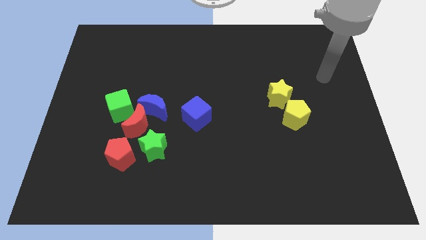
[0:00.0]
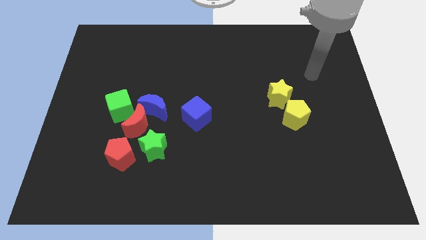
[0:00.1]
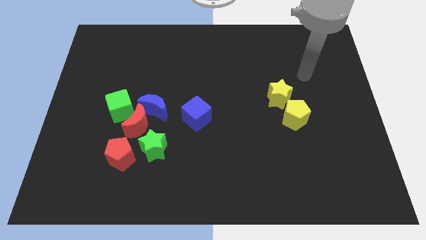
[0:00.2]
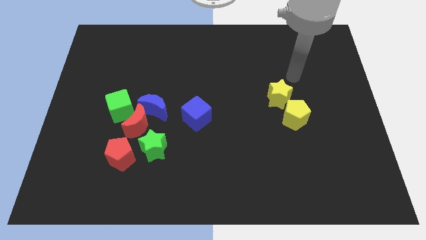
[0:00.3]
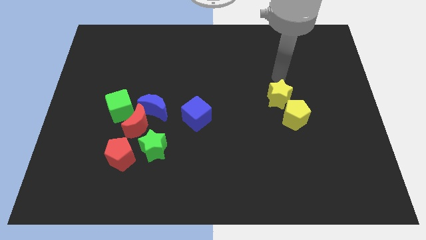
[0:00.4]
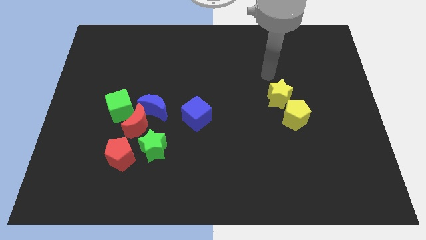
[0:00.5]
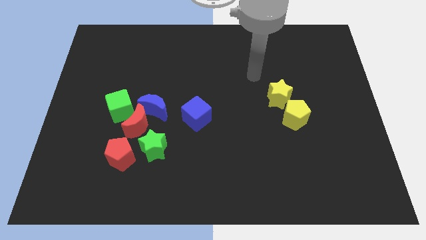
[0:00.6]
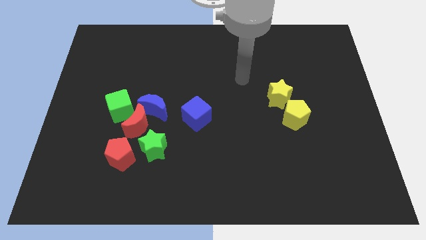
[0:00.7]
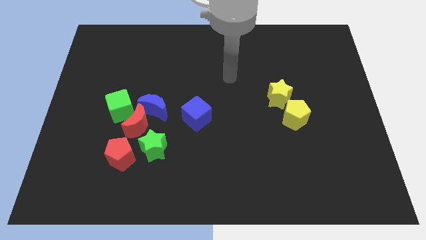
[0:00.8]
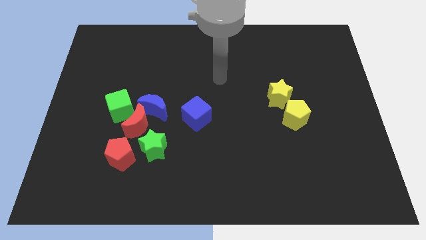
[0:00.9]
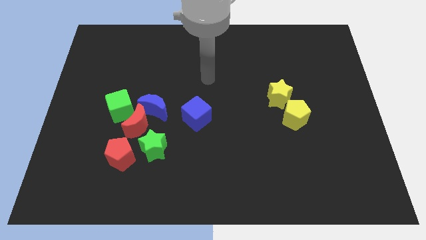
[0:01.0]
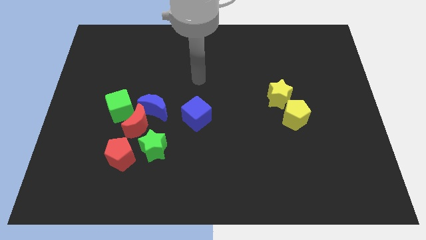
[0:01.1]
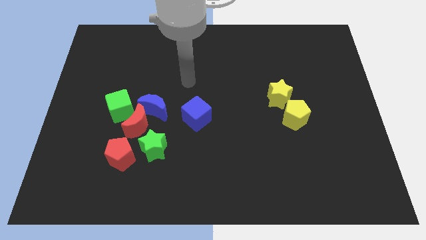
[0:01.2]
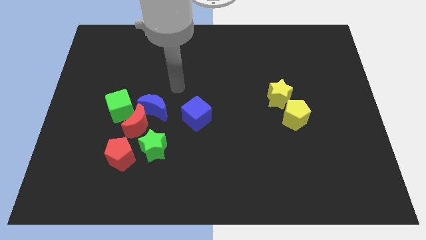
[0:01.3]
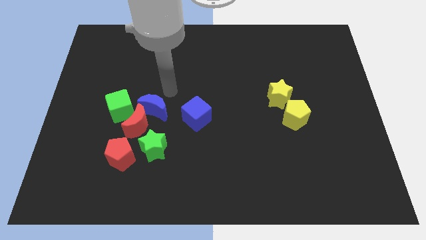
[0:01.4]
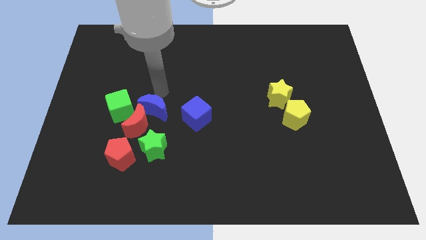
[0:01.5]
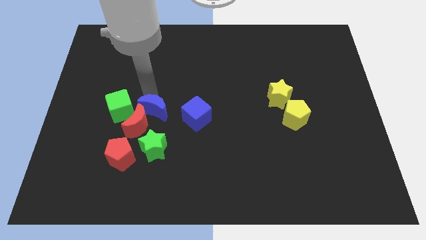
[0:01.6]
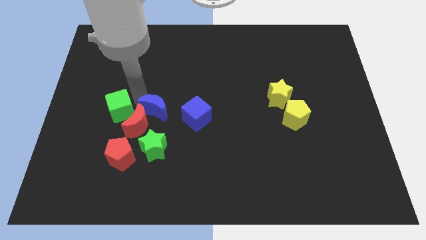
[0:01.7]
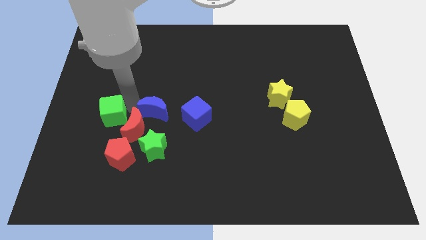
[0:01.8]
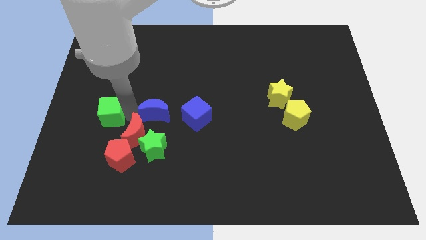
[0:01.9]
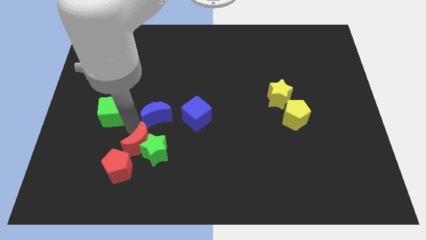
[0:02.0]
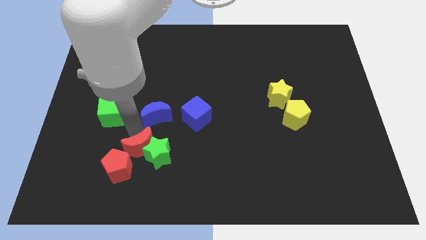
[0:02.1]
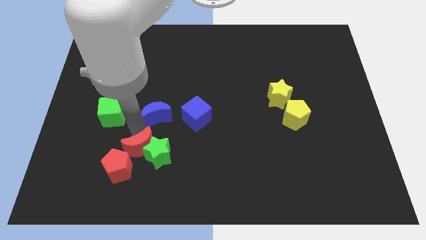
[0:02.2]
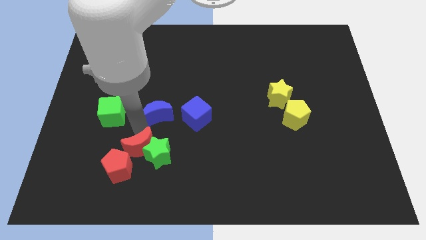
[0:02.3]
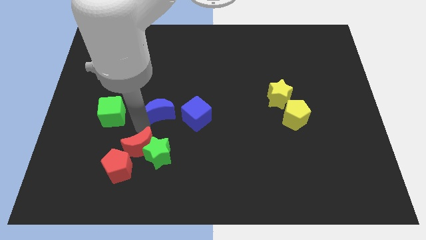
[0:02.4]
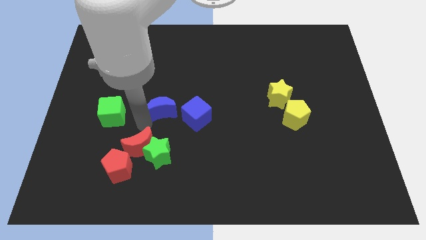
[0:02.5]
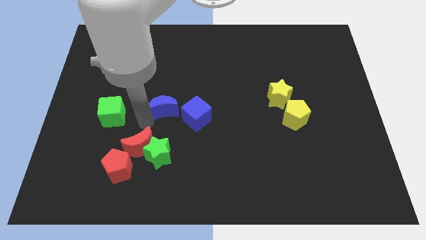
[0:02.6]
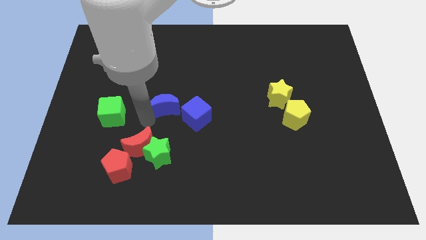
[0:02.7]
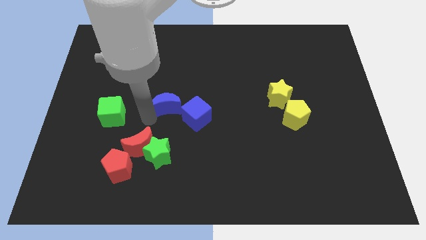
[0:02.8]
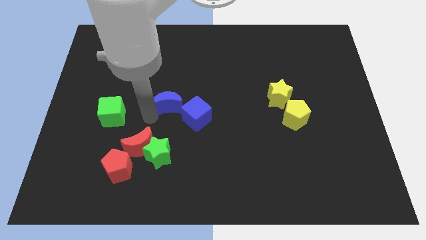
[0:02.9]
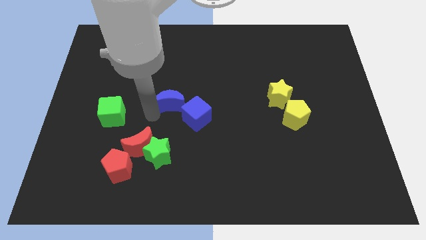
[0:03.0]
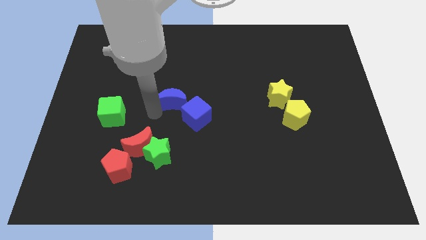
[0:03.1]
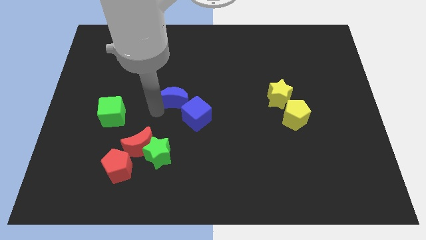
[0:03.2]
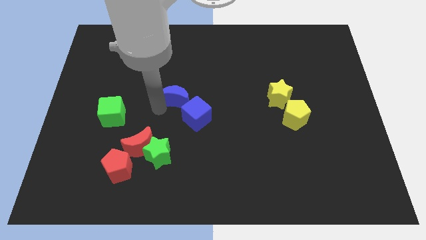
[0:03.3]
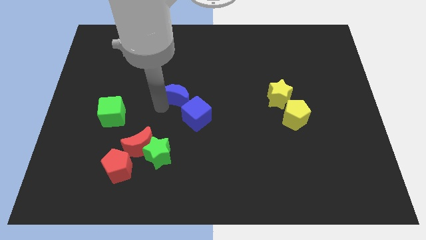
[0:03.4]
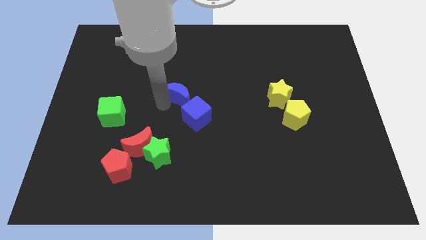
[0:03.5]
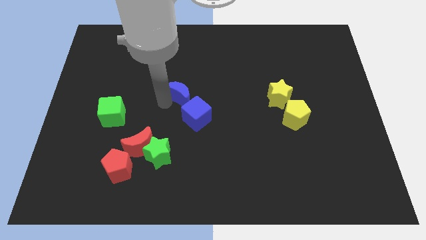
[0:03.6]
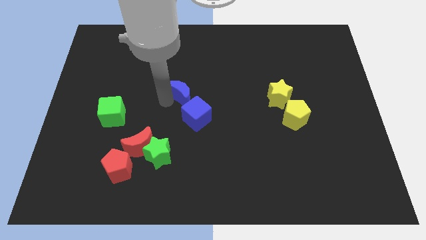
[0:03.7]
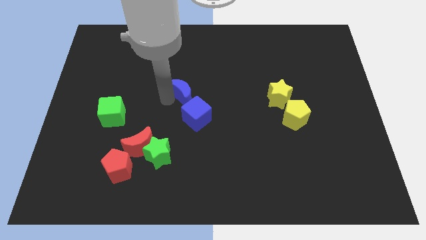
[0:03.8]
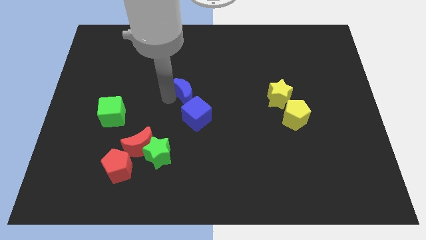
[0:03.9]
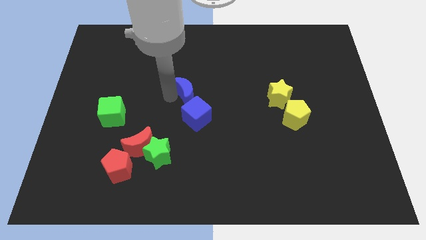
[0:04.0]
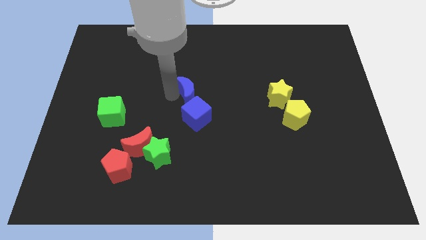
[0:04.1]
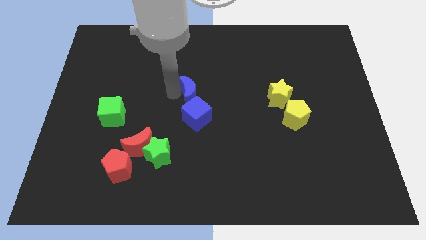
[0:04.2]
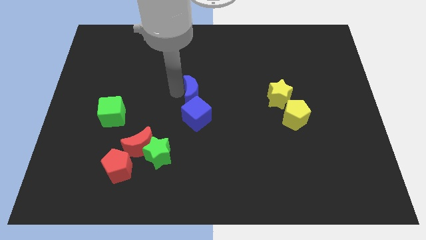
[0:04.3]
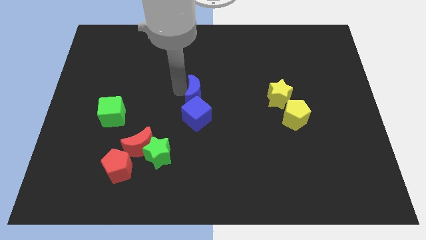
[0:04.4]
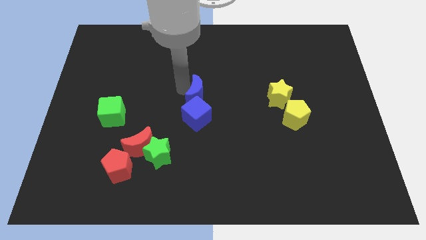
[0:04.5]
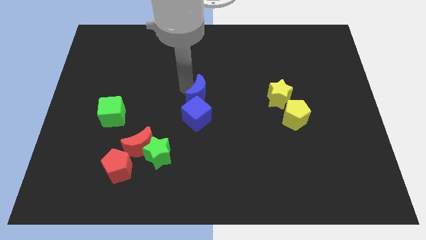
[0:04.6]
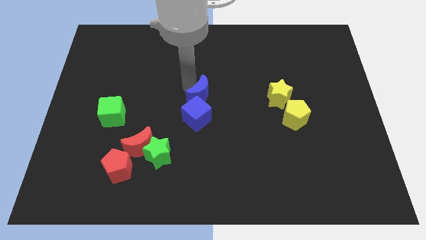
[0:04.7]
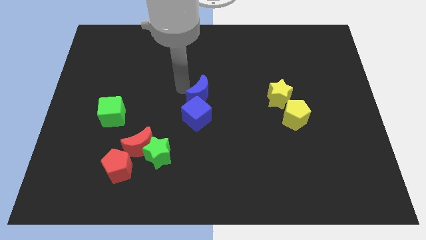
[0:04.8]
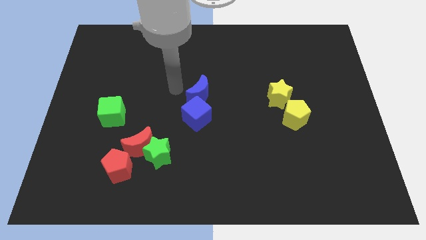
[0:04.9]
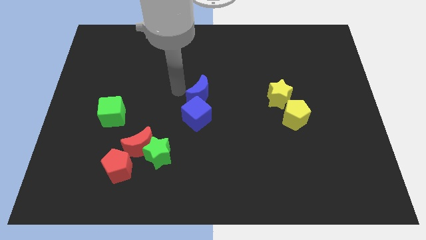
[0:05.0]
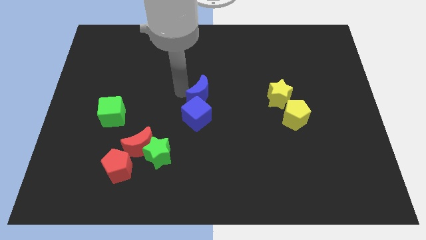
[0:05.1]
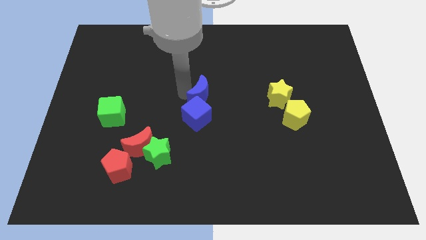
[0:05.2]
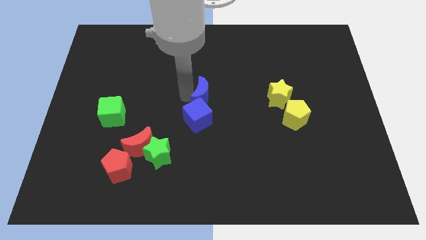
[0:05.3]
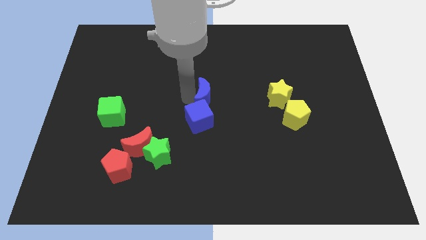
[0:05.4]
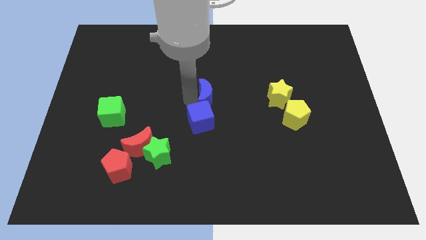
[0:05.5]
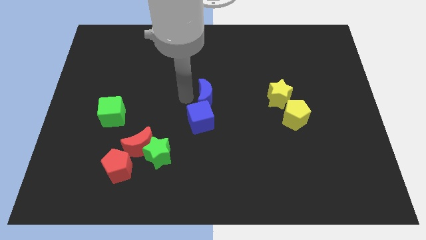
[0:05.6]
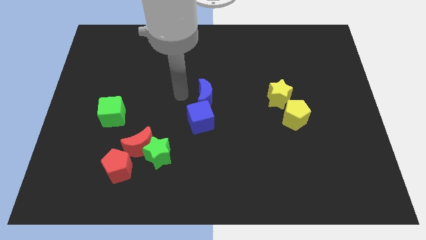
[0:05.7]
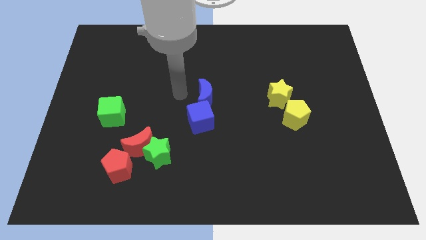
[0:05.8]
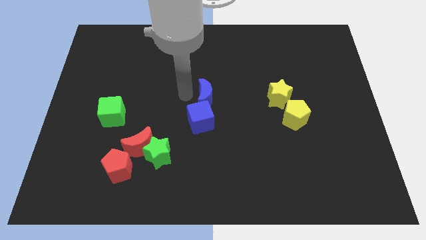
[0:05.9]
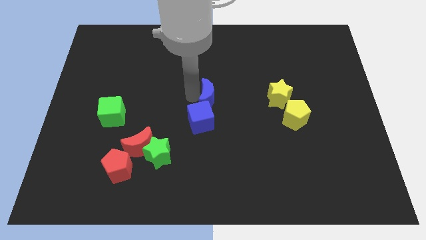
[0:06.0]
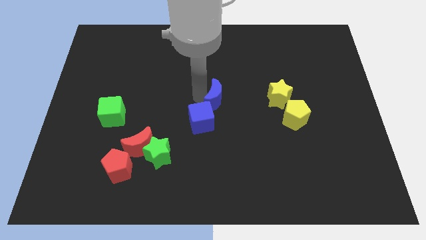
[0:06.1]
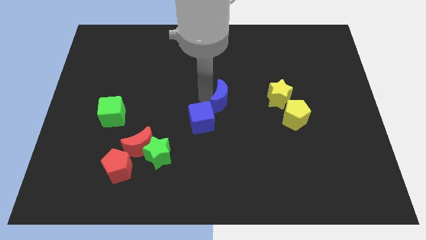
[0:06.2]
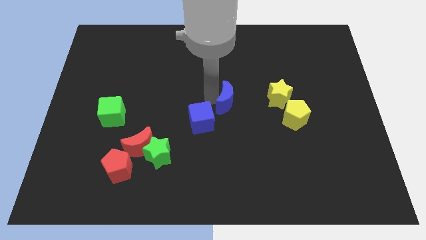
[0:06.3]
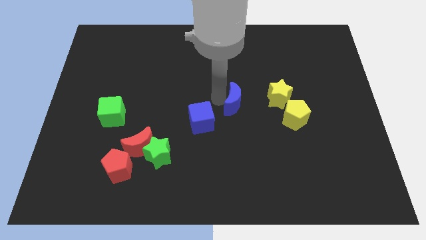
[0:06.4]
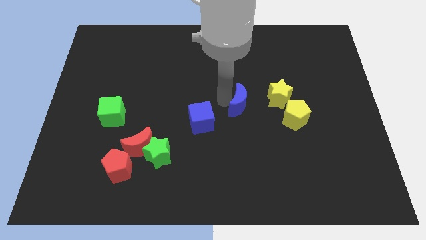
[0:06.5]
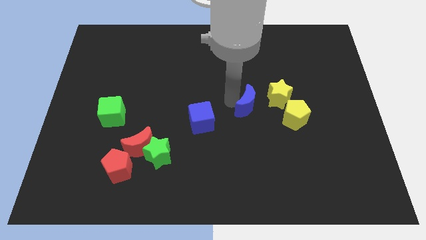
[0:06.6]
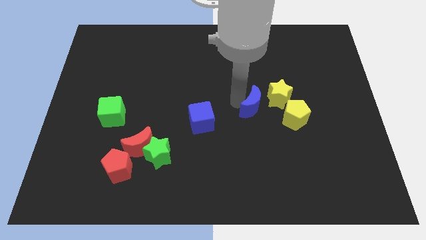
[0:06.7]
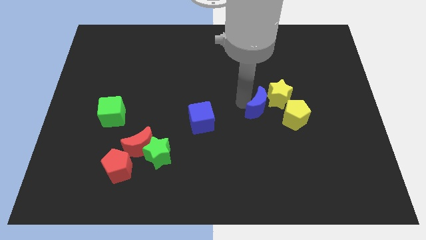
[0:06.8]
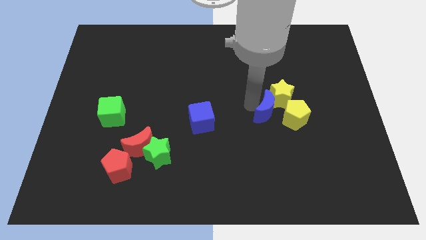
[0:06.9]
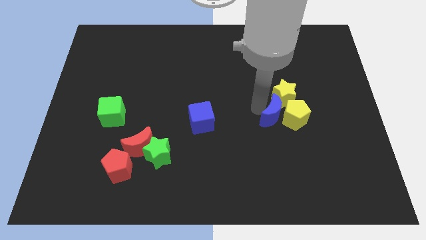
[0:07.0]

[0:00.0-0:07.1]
put the blue moon to the yellow pentagon

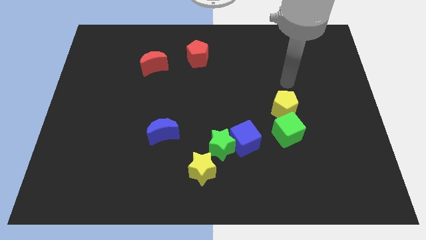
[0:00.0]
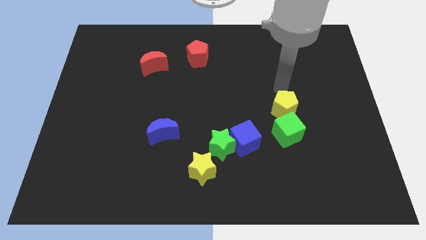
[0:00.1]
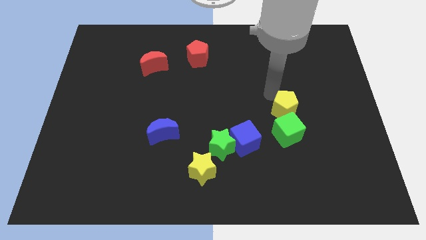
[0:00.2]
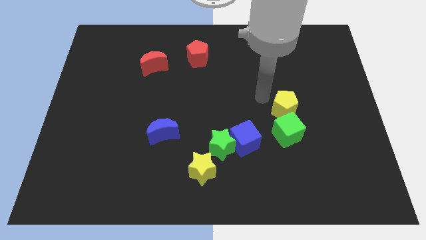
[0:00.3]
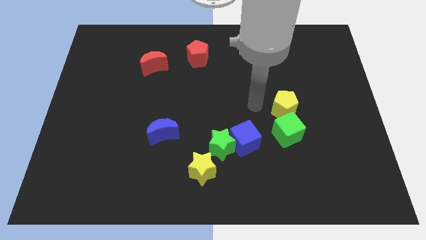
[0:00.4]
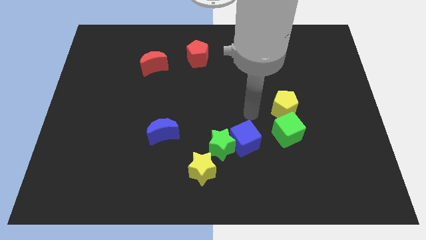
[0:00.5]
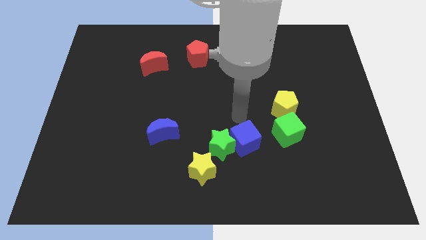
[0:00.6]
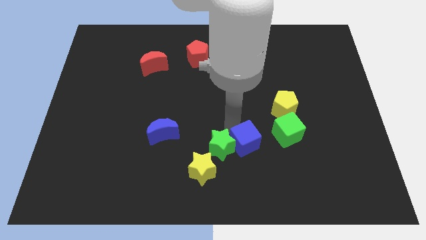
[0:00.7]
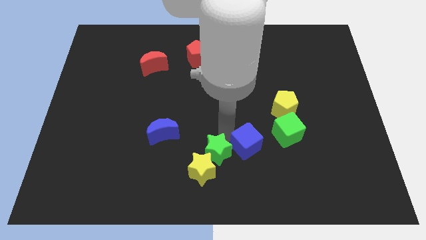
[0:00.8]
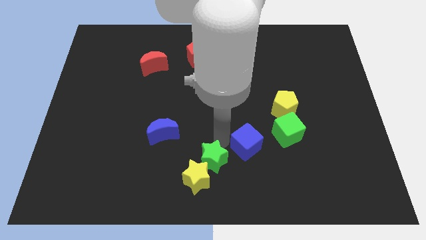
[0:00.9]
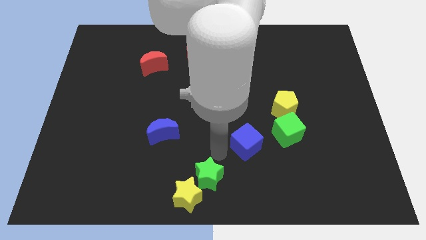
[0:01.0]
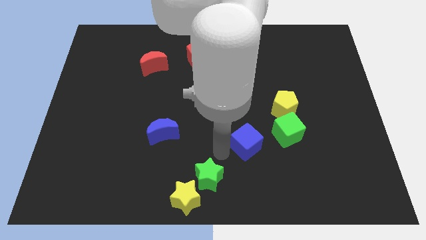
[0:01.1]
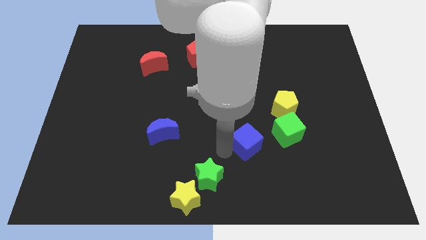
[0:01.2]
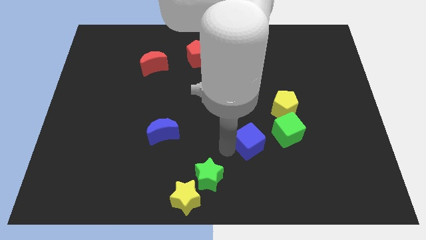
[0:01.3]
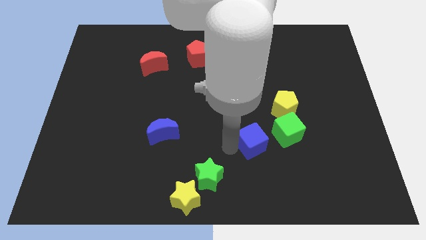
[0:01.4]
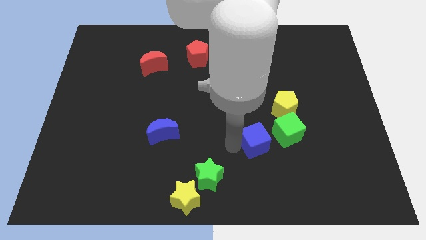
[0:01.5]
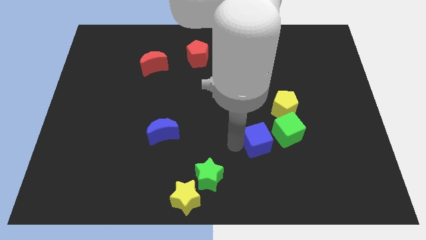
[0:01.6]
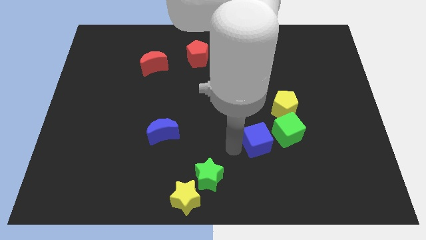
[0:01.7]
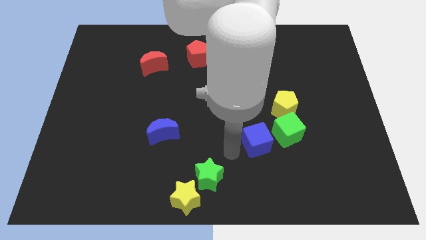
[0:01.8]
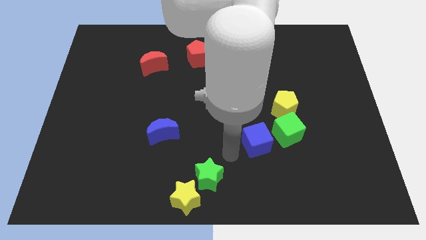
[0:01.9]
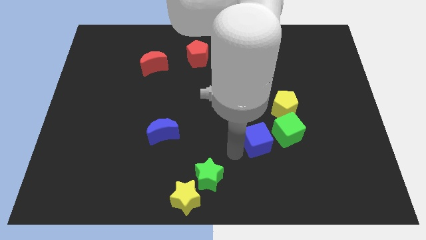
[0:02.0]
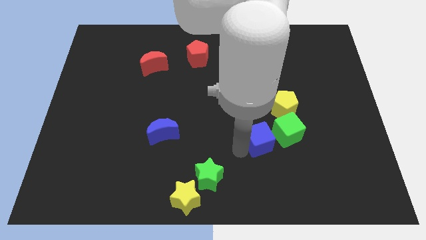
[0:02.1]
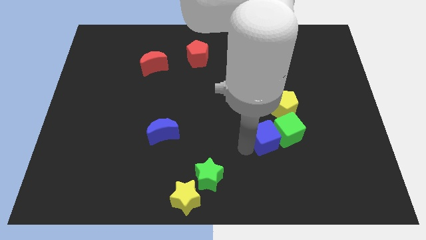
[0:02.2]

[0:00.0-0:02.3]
push the blue cube towards the green cube
